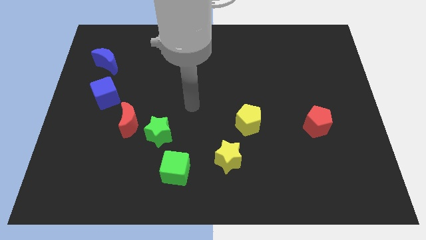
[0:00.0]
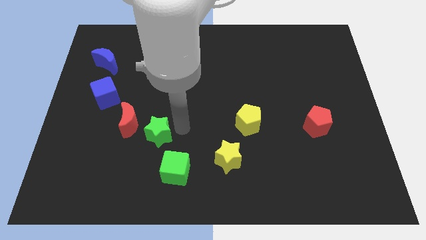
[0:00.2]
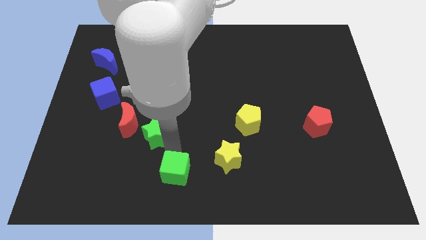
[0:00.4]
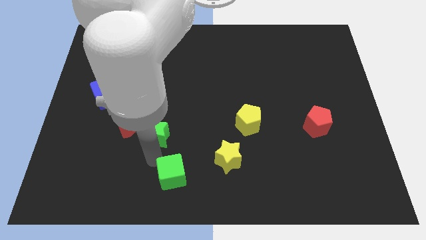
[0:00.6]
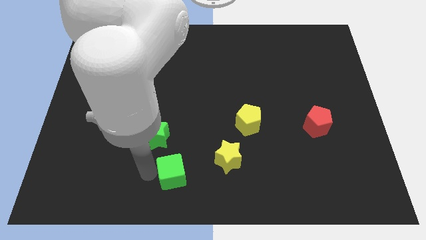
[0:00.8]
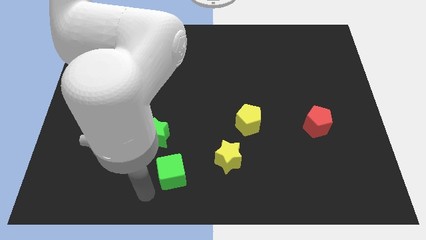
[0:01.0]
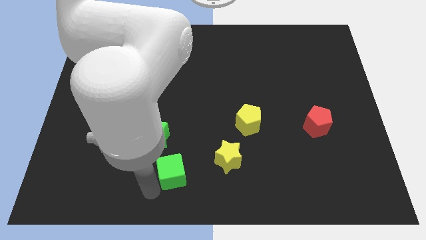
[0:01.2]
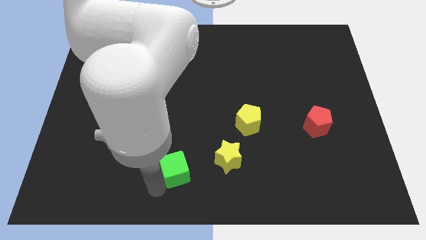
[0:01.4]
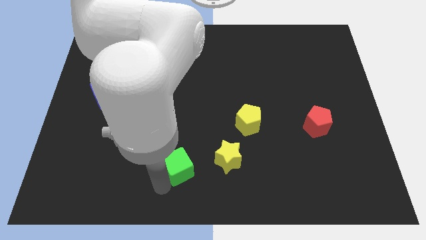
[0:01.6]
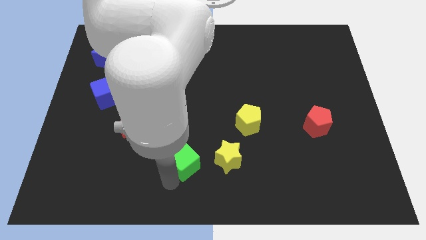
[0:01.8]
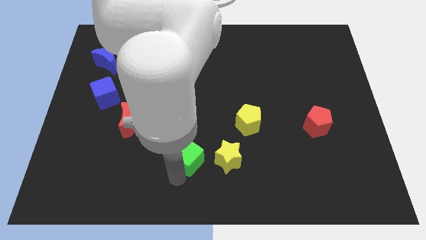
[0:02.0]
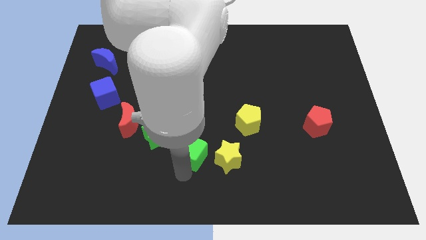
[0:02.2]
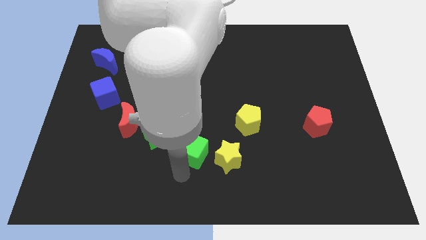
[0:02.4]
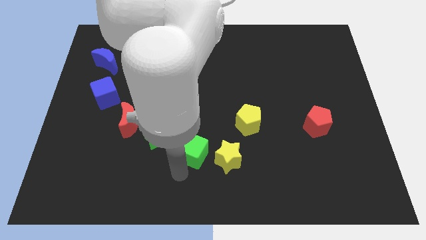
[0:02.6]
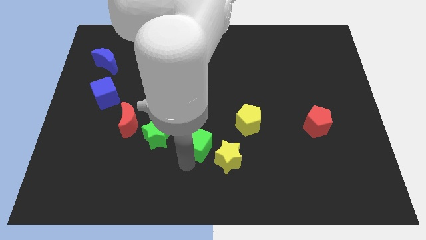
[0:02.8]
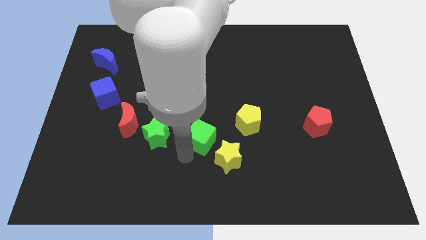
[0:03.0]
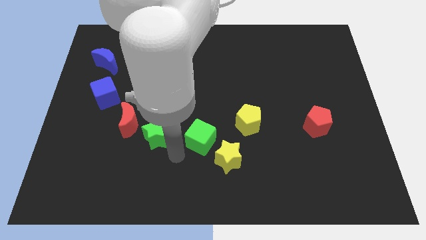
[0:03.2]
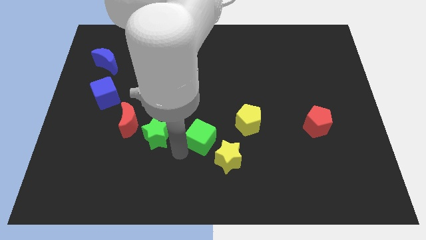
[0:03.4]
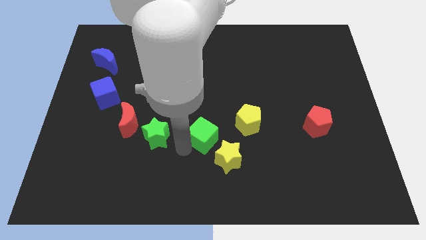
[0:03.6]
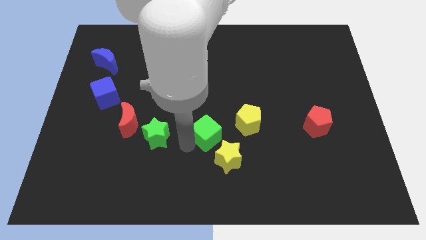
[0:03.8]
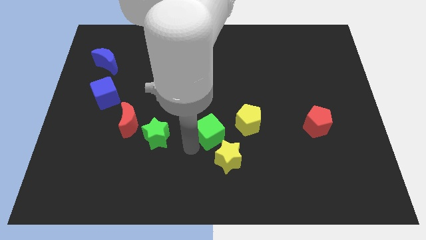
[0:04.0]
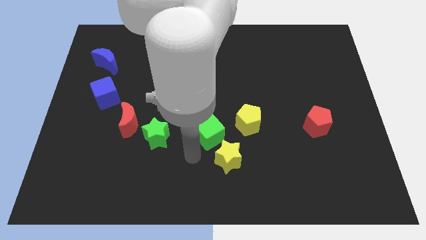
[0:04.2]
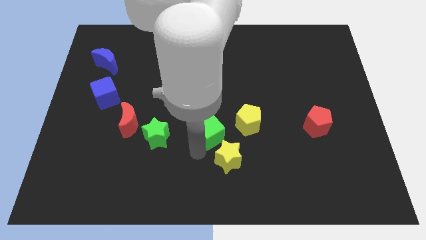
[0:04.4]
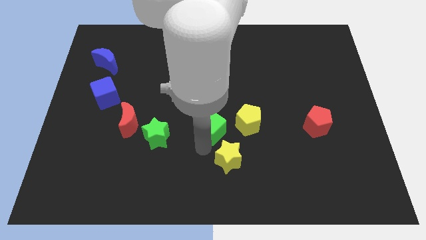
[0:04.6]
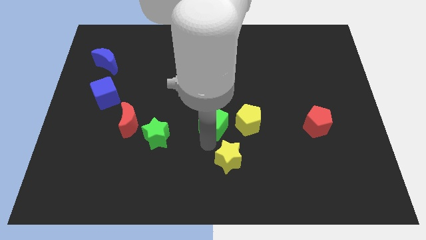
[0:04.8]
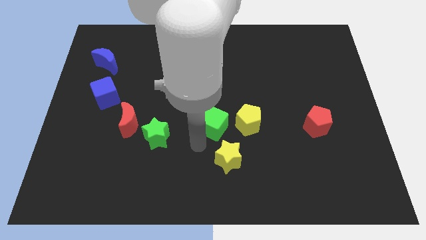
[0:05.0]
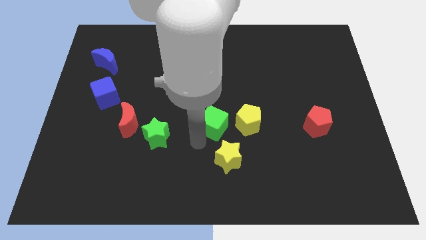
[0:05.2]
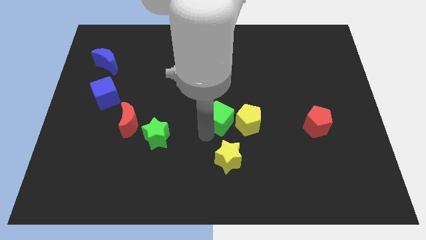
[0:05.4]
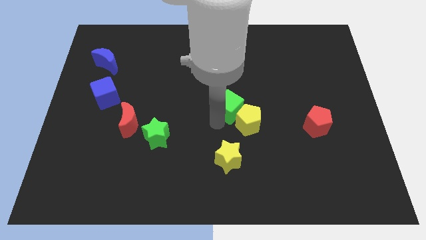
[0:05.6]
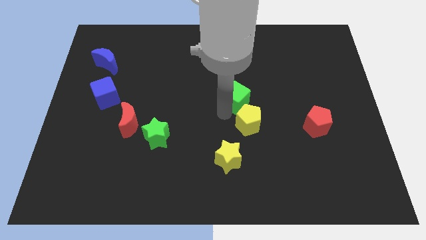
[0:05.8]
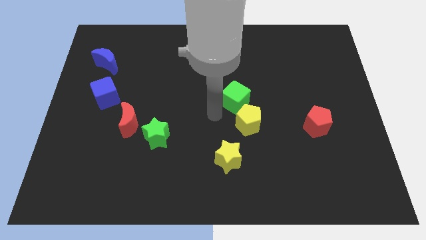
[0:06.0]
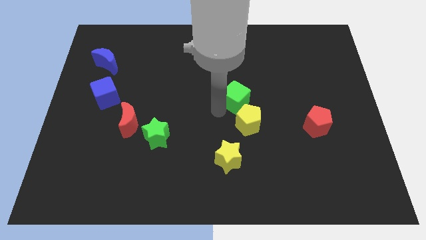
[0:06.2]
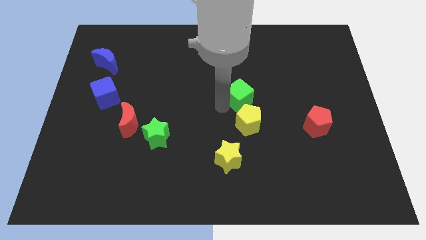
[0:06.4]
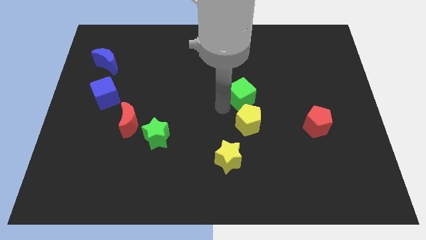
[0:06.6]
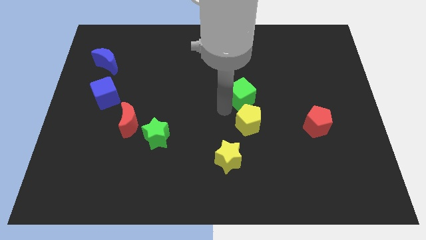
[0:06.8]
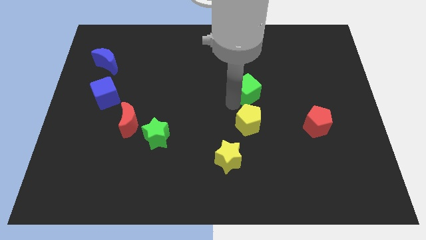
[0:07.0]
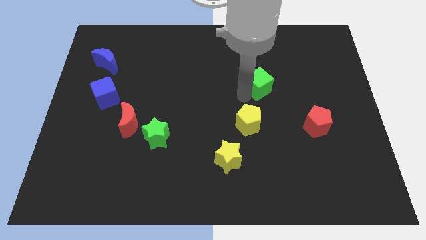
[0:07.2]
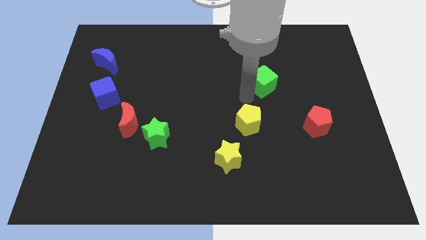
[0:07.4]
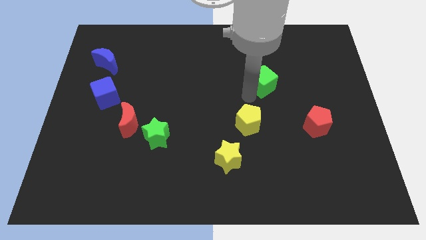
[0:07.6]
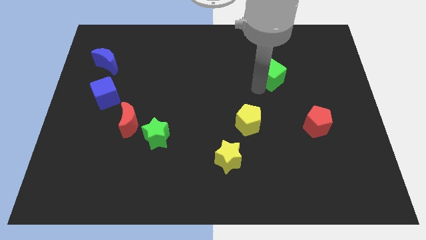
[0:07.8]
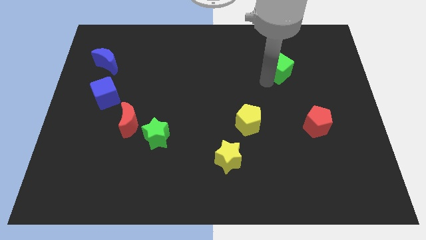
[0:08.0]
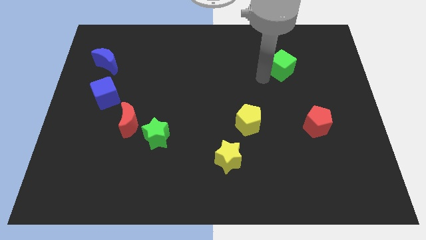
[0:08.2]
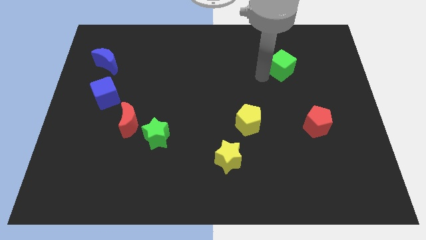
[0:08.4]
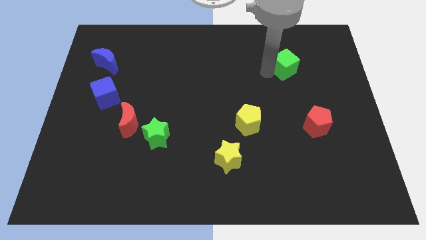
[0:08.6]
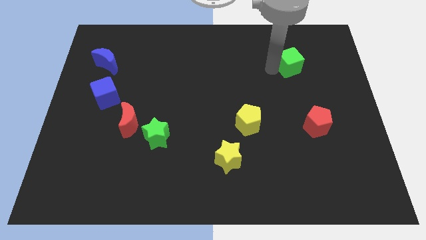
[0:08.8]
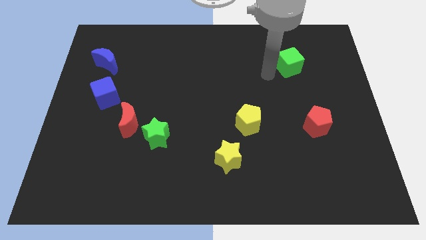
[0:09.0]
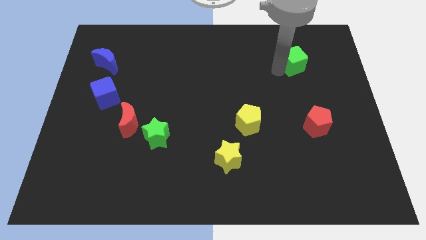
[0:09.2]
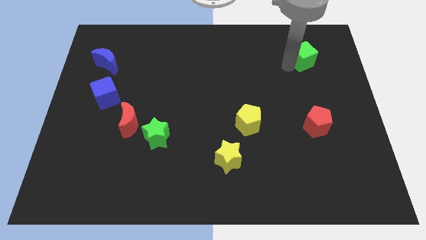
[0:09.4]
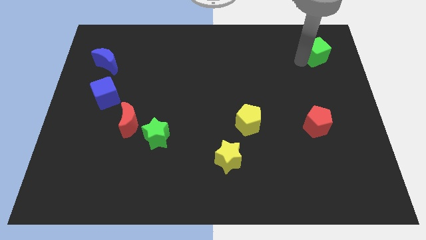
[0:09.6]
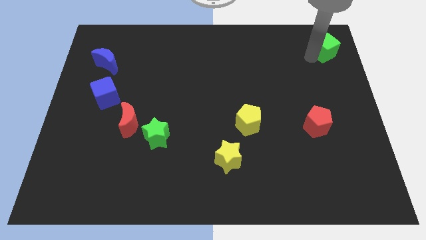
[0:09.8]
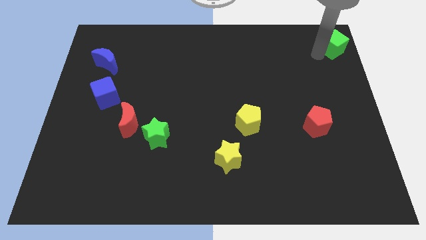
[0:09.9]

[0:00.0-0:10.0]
push the green cube to the top right of the board

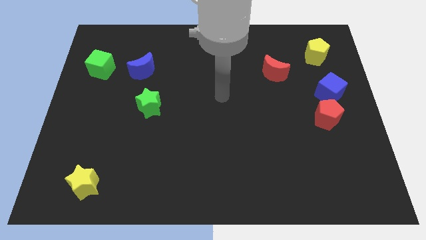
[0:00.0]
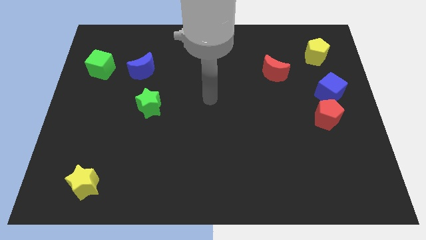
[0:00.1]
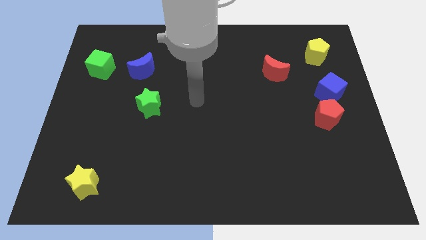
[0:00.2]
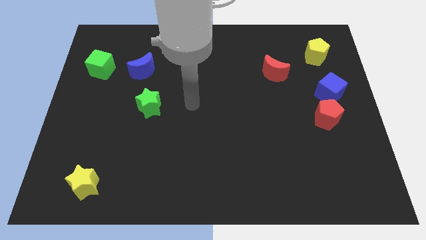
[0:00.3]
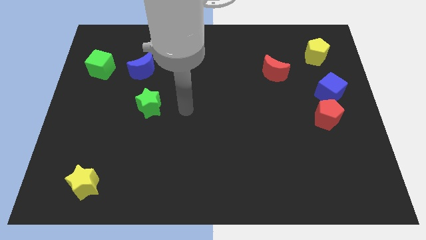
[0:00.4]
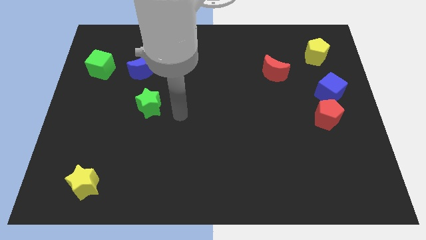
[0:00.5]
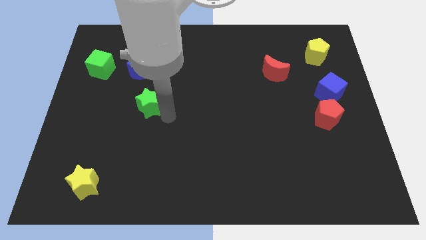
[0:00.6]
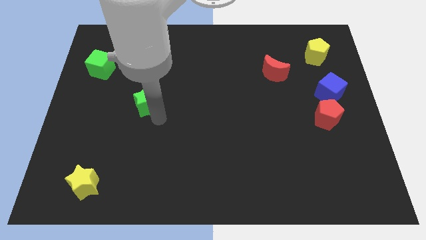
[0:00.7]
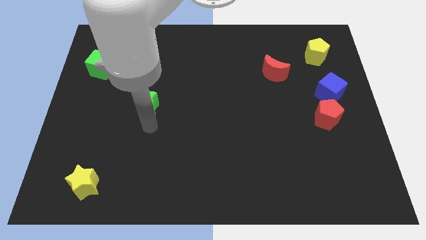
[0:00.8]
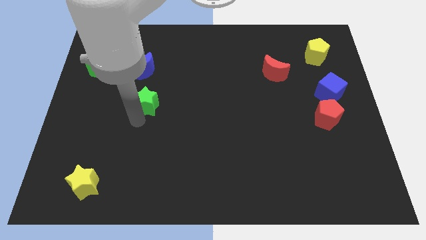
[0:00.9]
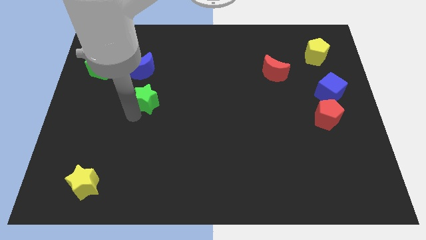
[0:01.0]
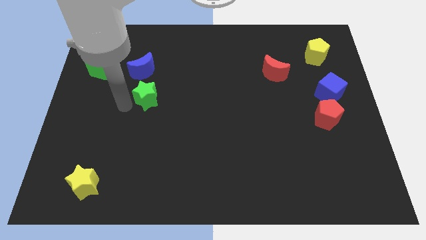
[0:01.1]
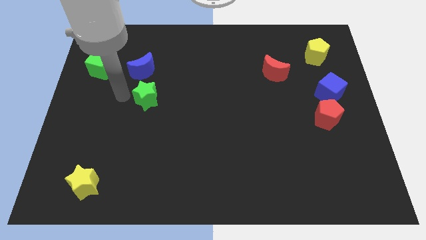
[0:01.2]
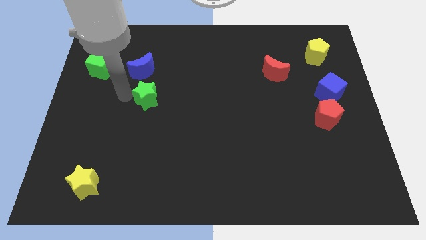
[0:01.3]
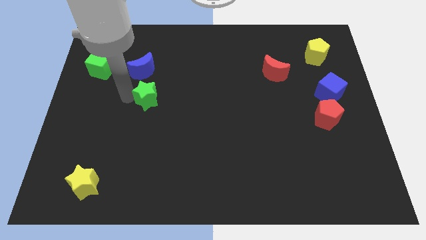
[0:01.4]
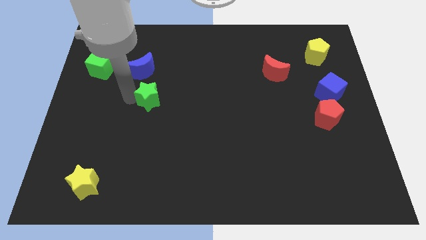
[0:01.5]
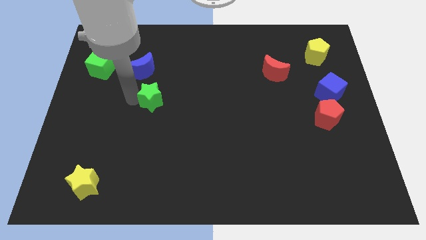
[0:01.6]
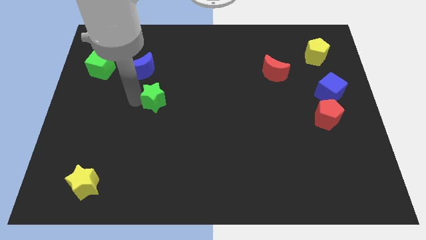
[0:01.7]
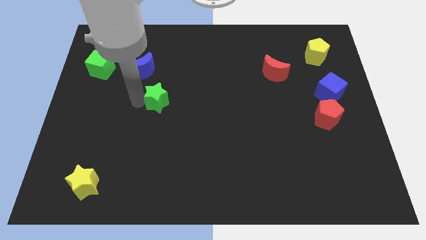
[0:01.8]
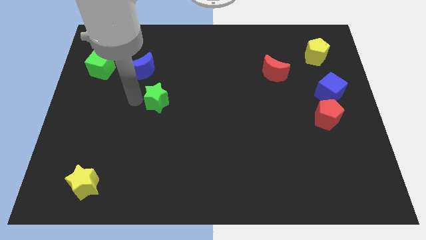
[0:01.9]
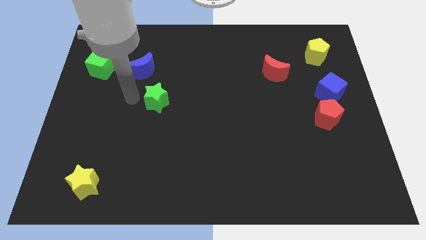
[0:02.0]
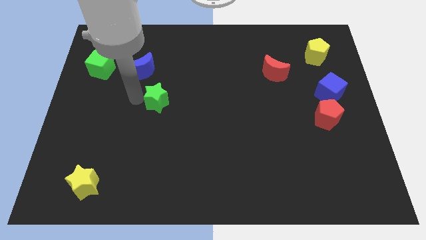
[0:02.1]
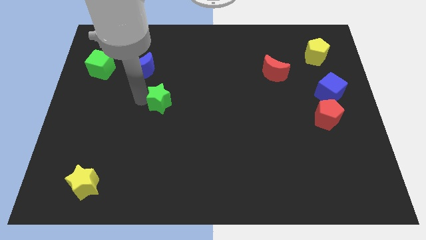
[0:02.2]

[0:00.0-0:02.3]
push the green star to the center
